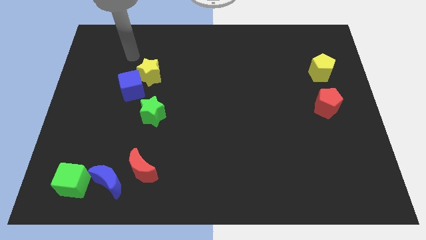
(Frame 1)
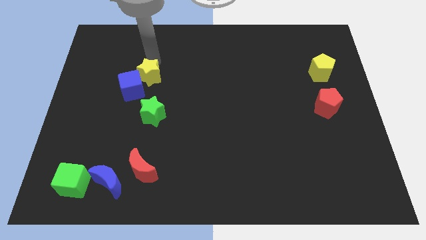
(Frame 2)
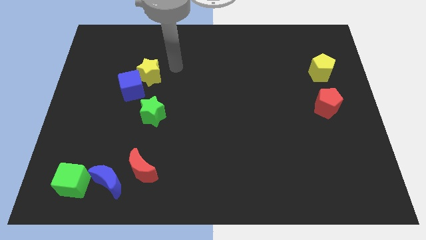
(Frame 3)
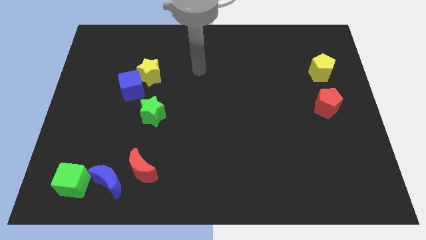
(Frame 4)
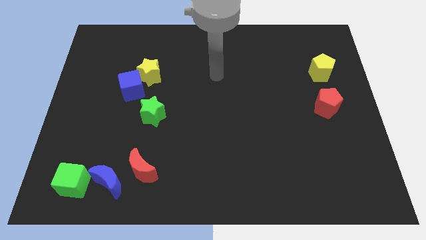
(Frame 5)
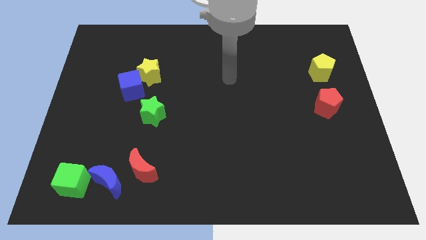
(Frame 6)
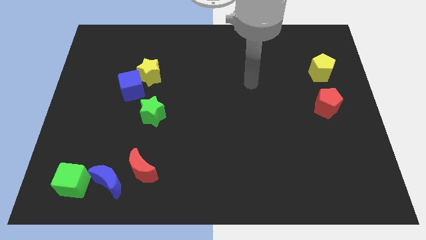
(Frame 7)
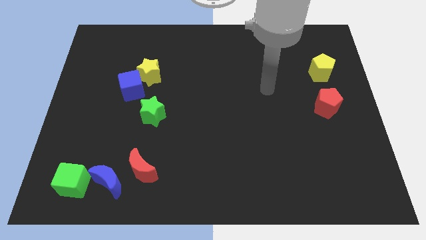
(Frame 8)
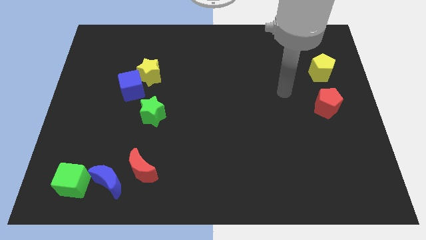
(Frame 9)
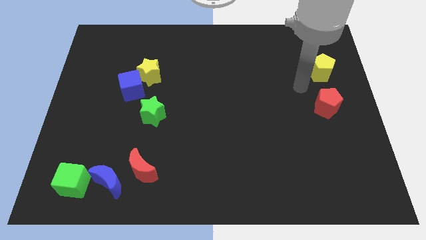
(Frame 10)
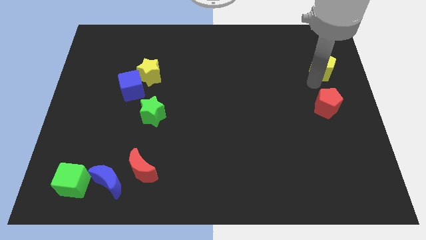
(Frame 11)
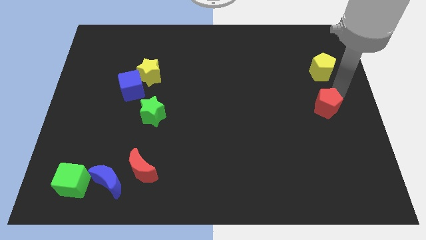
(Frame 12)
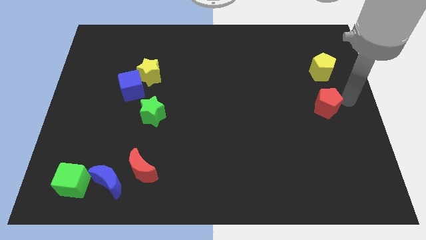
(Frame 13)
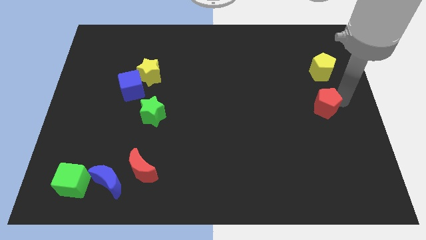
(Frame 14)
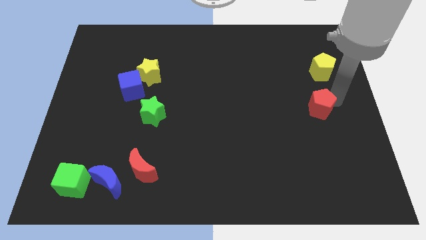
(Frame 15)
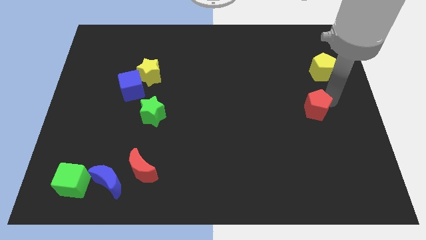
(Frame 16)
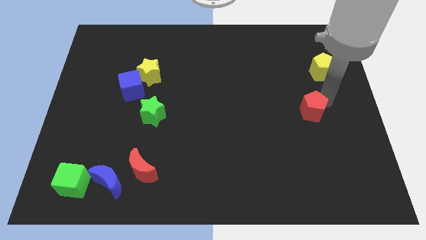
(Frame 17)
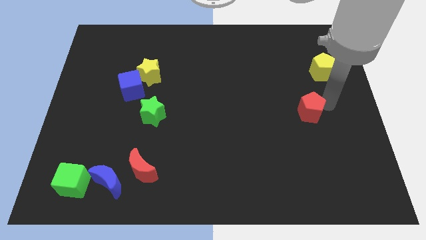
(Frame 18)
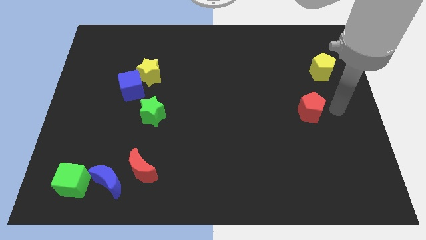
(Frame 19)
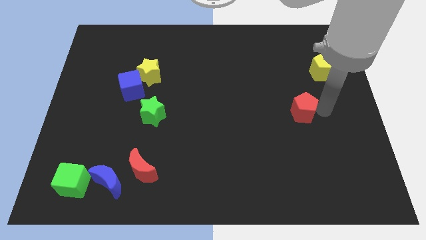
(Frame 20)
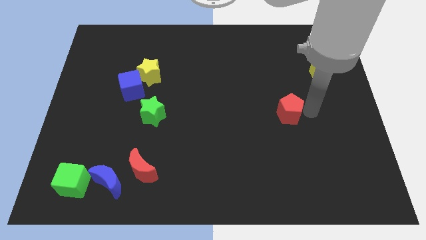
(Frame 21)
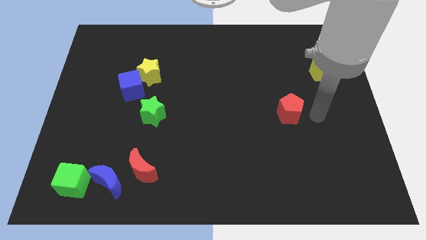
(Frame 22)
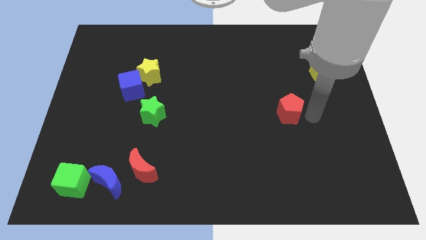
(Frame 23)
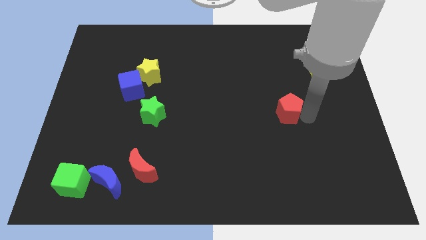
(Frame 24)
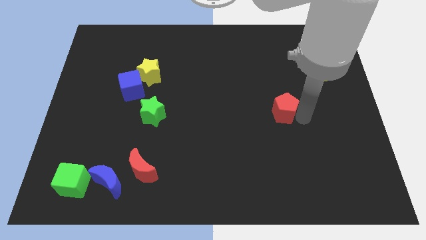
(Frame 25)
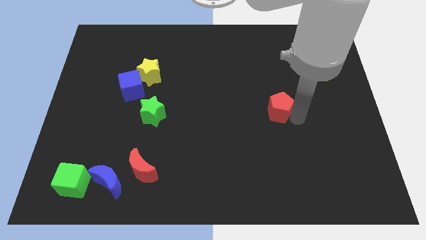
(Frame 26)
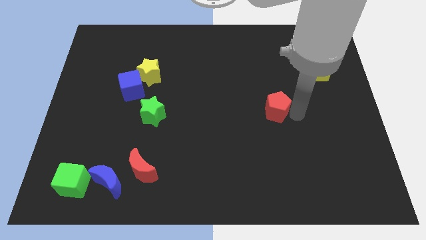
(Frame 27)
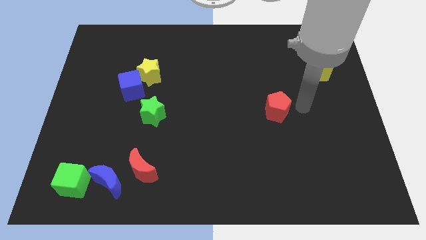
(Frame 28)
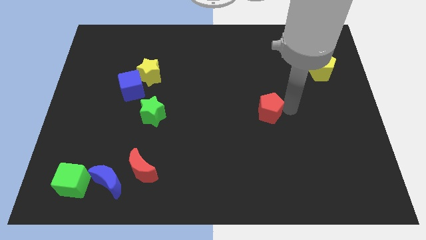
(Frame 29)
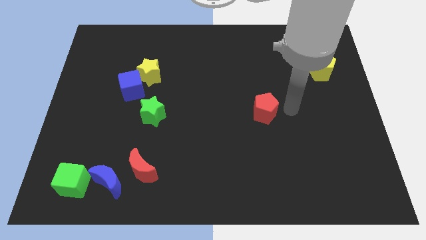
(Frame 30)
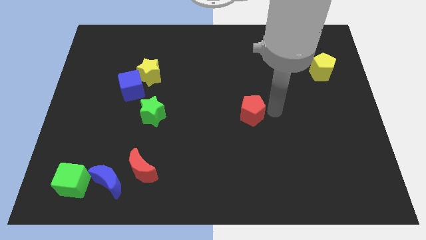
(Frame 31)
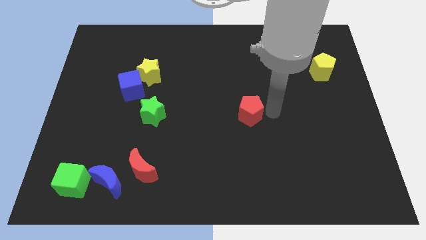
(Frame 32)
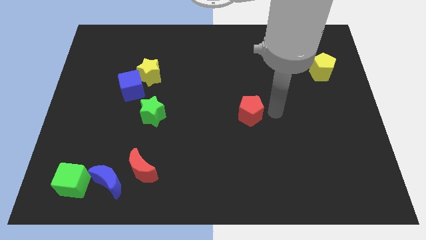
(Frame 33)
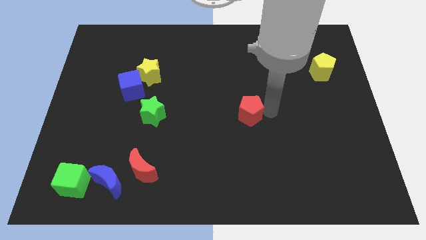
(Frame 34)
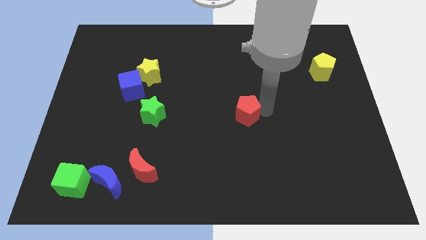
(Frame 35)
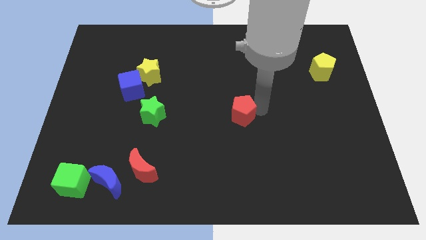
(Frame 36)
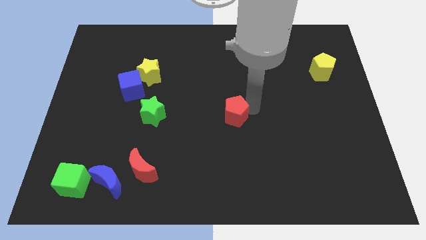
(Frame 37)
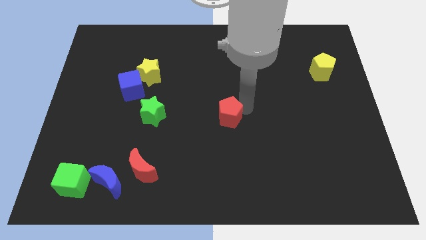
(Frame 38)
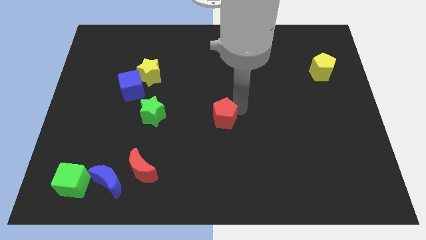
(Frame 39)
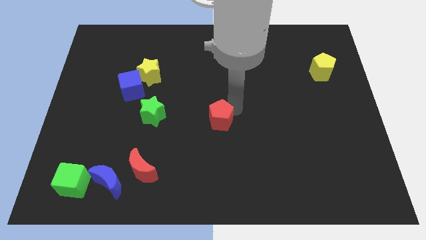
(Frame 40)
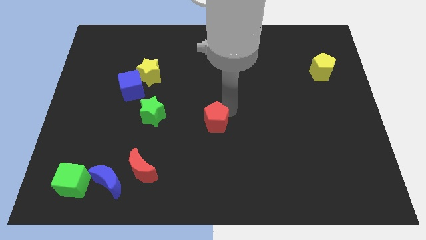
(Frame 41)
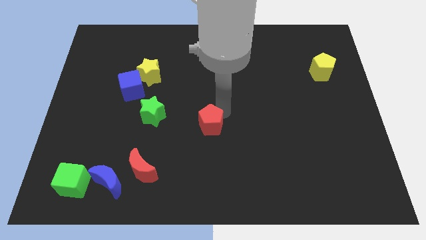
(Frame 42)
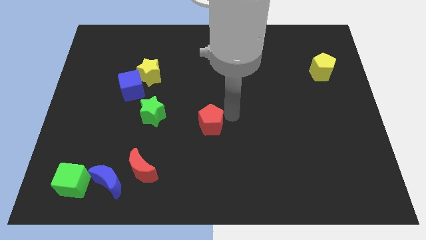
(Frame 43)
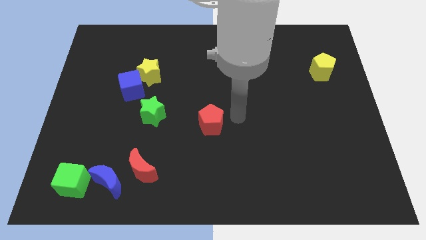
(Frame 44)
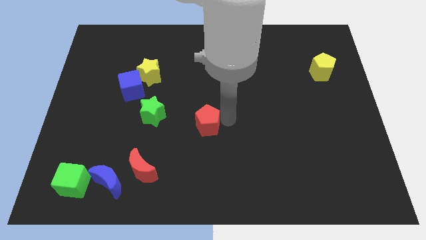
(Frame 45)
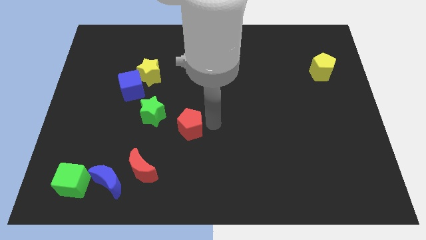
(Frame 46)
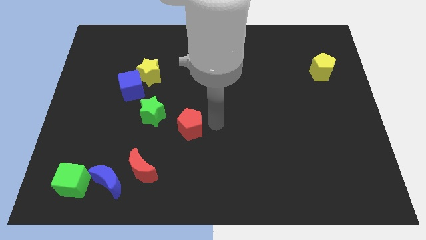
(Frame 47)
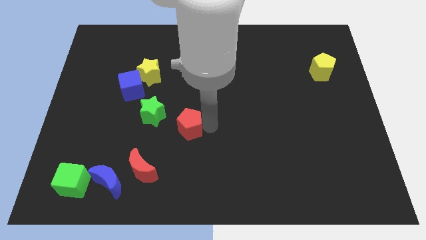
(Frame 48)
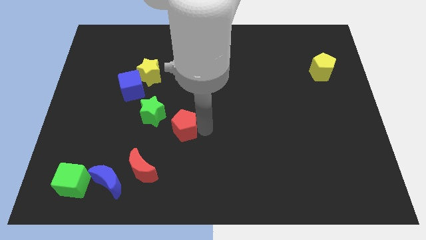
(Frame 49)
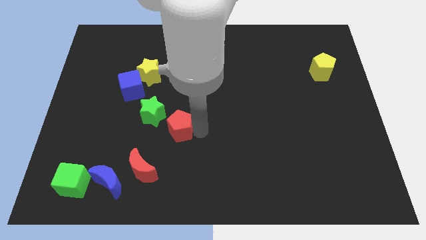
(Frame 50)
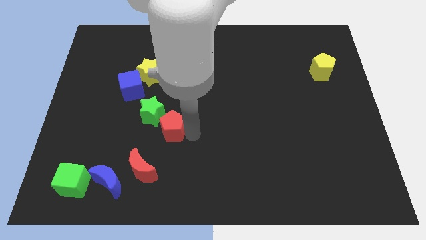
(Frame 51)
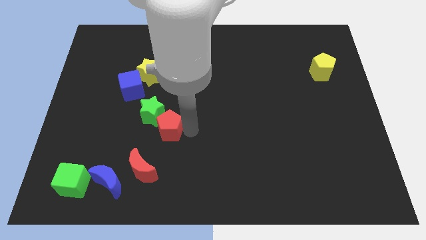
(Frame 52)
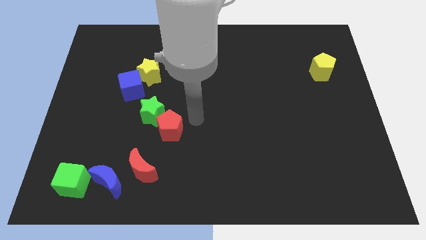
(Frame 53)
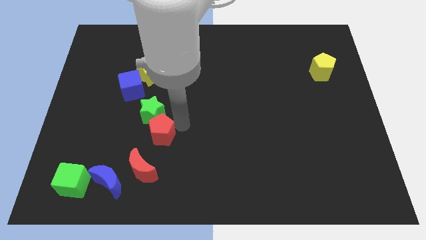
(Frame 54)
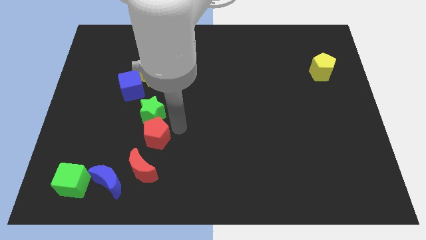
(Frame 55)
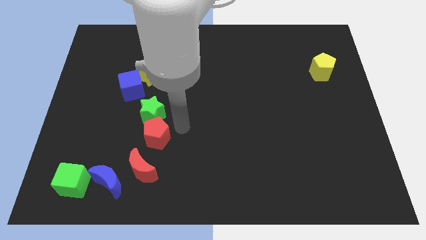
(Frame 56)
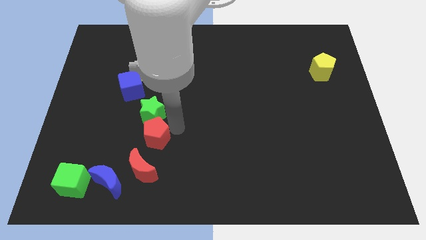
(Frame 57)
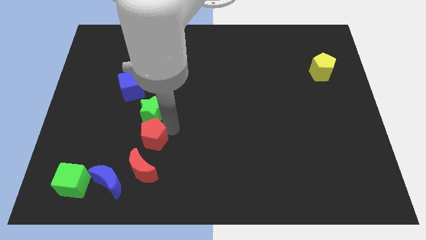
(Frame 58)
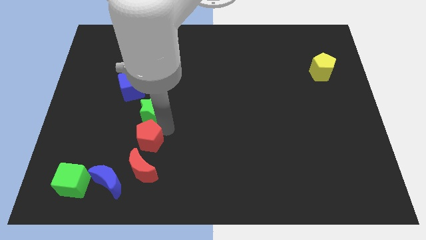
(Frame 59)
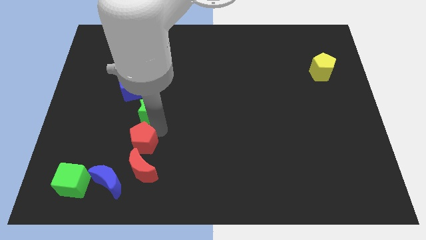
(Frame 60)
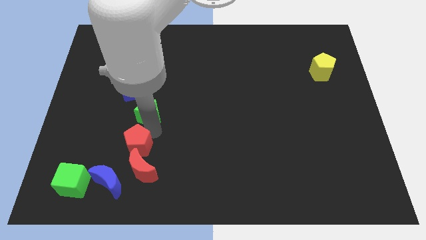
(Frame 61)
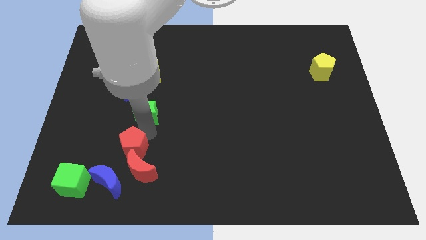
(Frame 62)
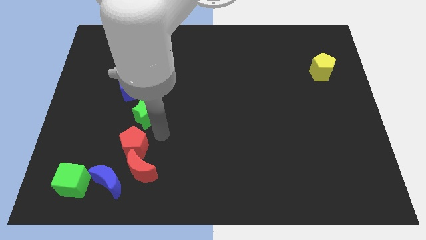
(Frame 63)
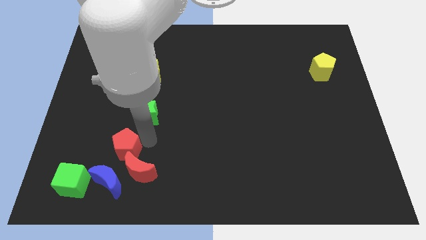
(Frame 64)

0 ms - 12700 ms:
move the red pentagon diagonally up and to the right of the green cube

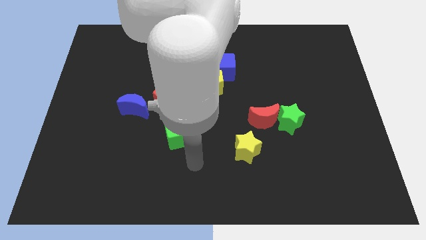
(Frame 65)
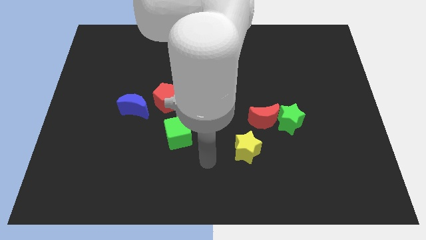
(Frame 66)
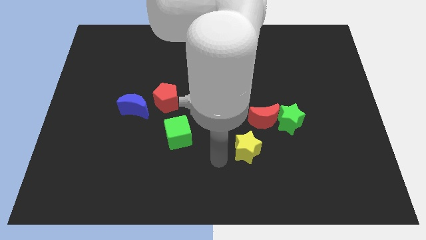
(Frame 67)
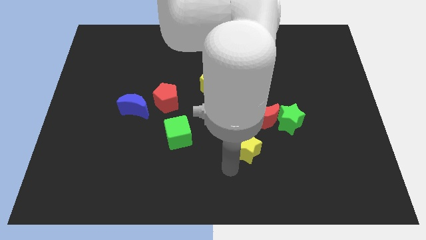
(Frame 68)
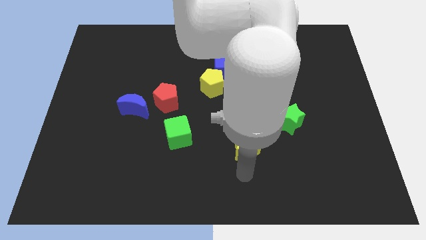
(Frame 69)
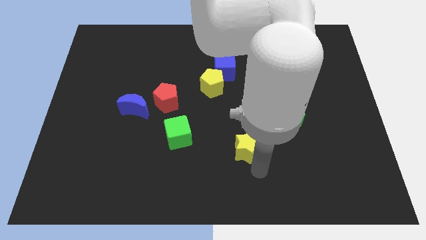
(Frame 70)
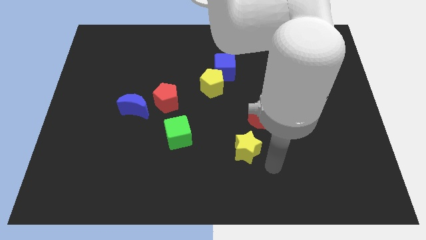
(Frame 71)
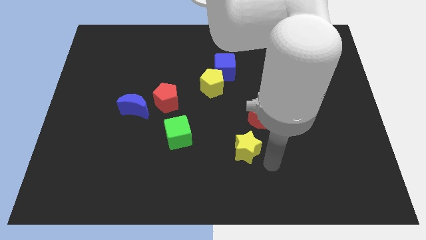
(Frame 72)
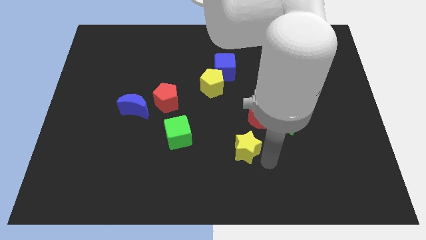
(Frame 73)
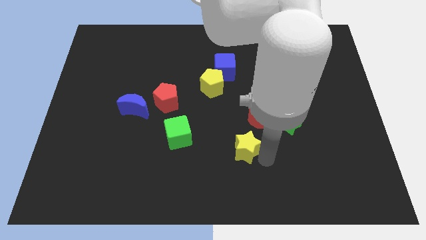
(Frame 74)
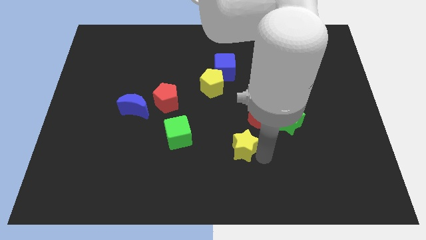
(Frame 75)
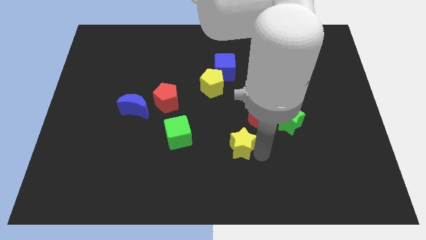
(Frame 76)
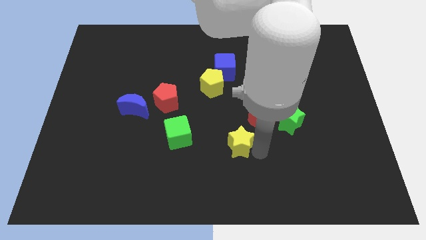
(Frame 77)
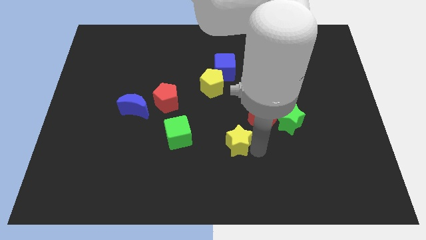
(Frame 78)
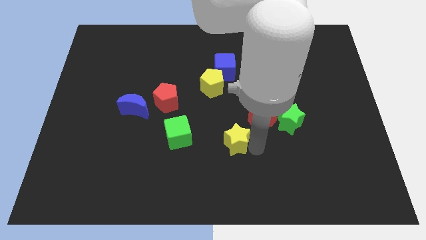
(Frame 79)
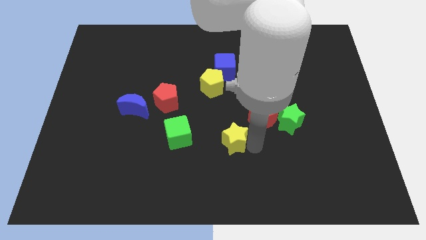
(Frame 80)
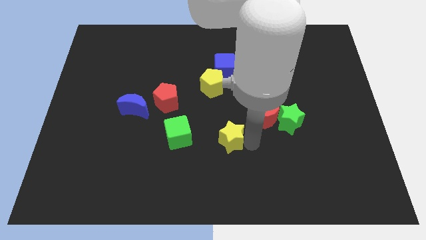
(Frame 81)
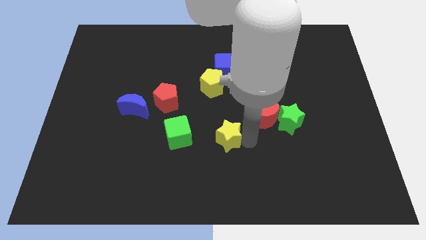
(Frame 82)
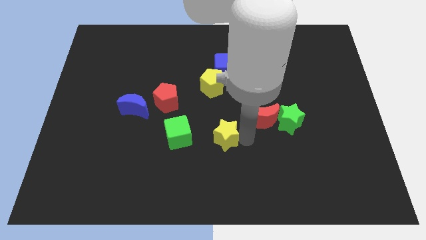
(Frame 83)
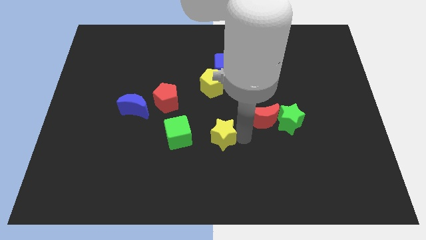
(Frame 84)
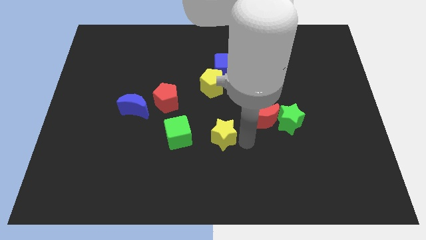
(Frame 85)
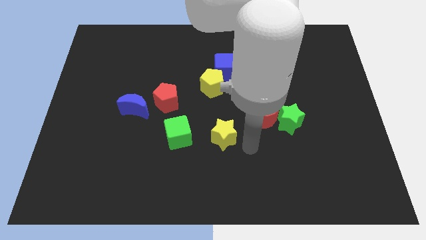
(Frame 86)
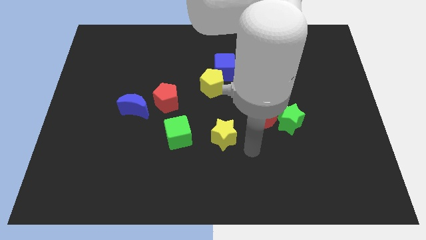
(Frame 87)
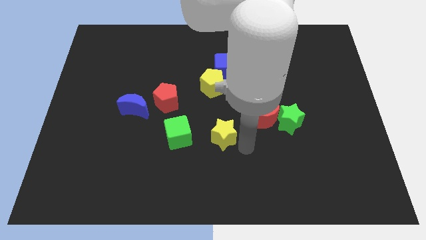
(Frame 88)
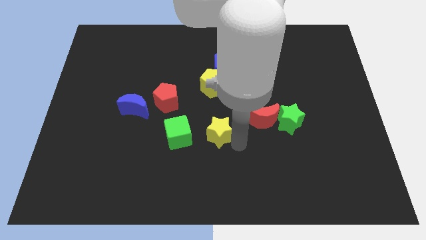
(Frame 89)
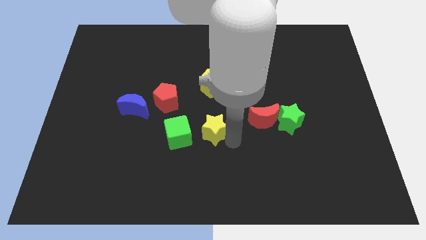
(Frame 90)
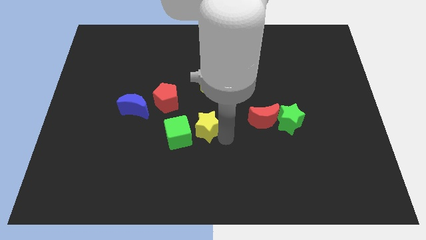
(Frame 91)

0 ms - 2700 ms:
put the yellow star to the bottom right side of the red pentagon
